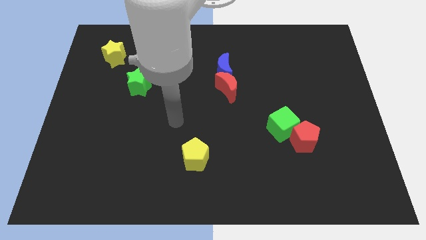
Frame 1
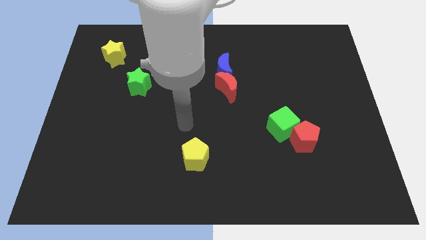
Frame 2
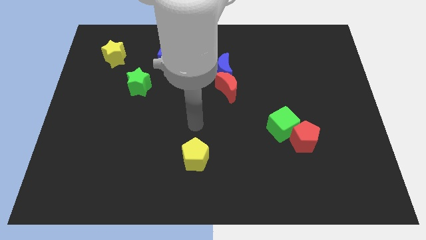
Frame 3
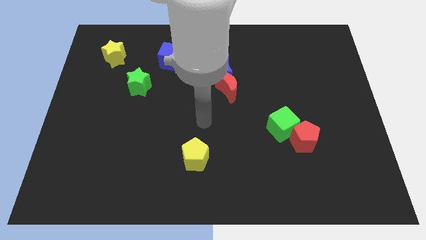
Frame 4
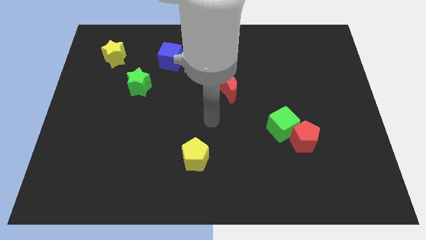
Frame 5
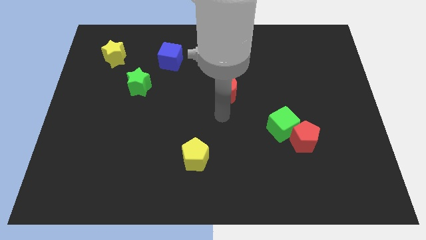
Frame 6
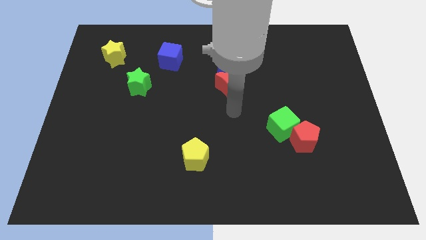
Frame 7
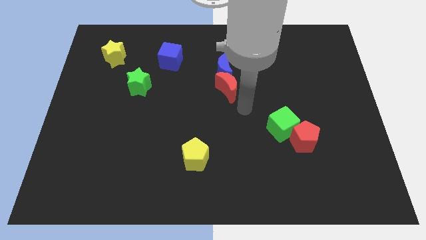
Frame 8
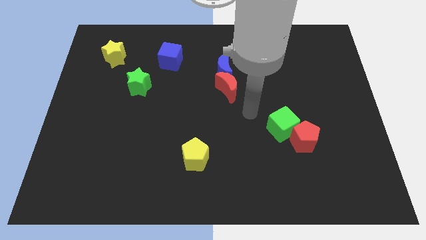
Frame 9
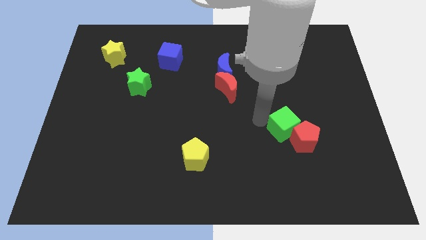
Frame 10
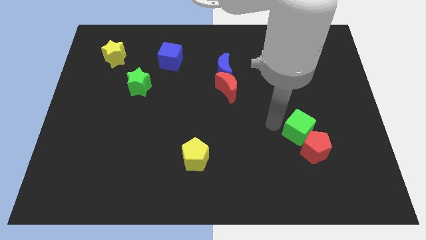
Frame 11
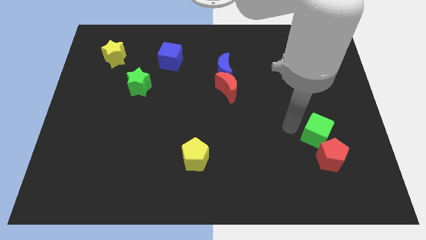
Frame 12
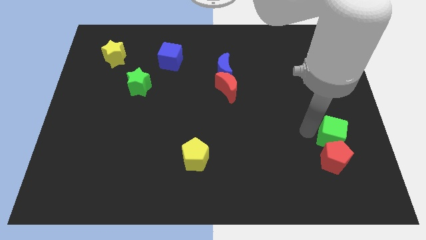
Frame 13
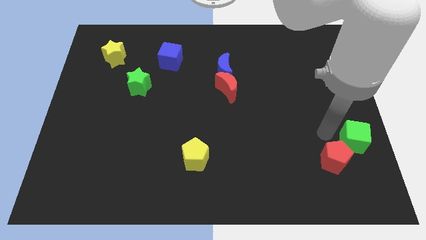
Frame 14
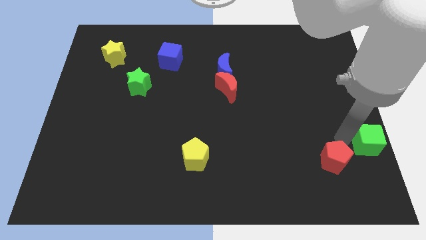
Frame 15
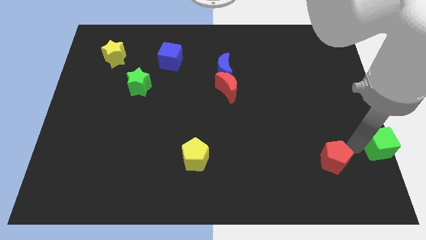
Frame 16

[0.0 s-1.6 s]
pull the red pentagon apart from the green cube

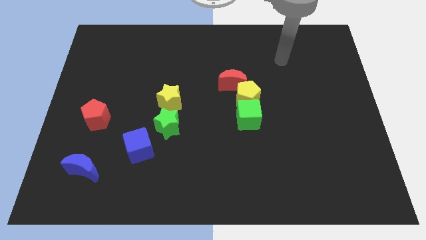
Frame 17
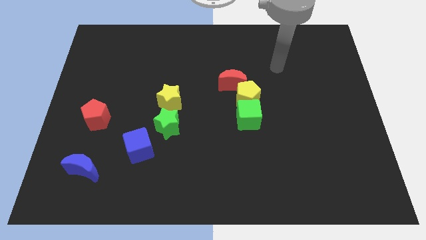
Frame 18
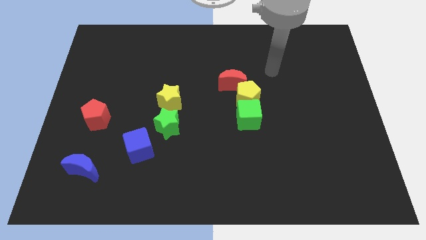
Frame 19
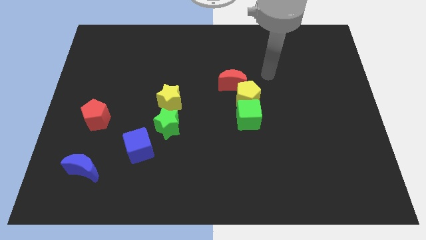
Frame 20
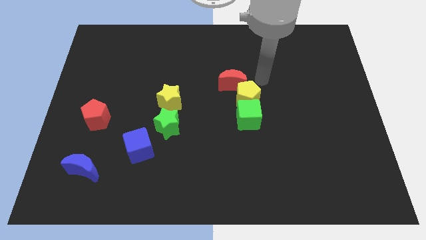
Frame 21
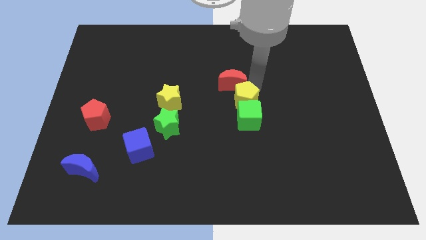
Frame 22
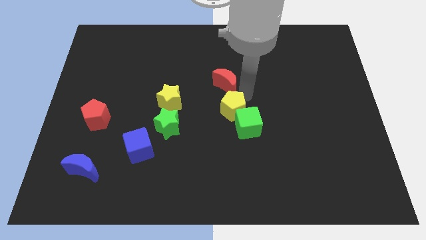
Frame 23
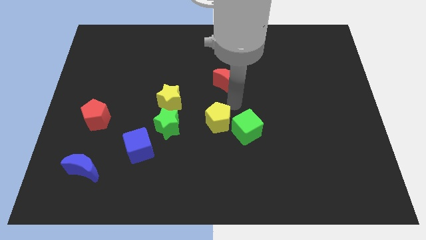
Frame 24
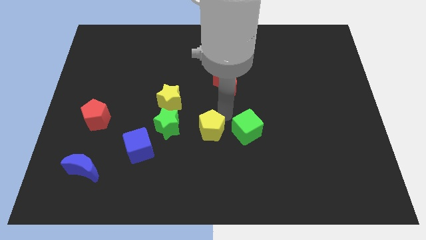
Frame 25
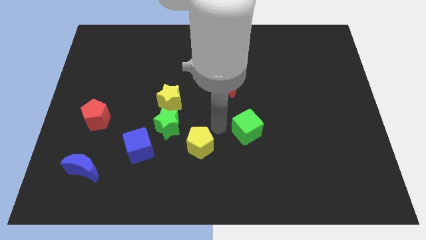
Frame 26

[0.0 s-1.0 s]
separate the green cube from the yellow pentagon

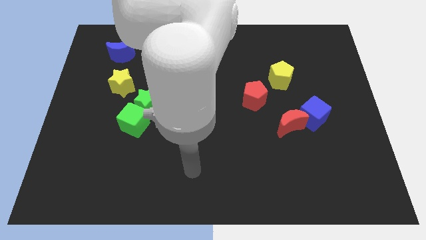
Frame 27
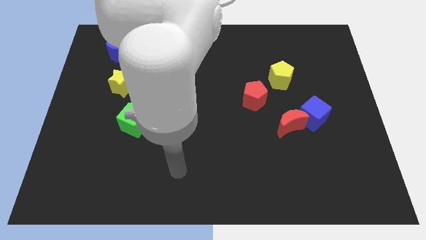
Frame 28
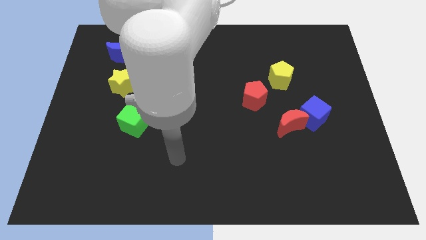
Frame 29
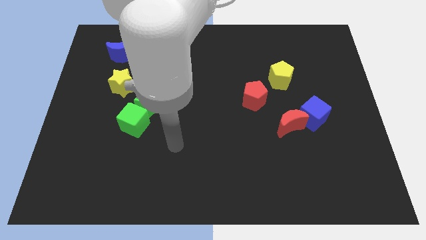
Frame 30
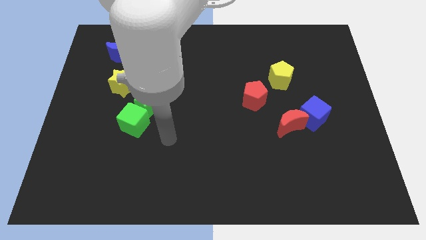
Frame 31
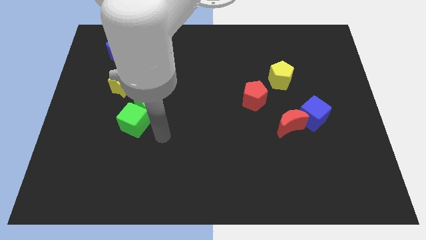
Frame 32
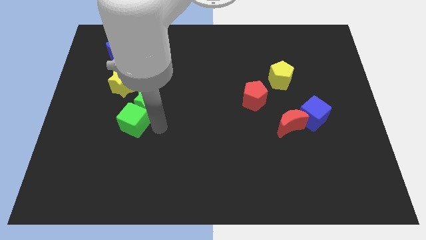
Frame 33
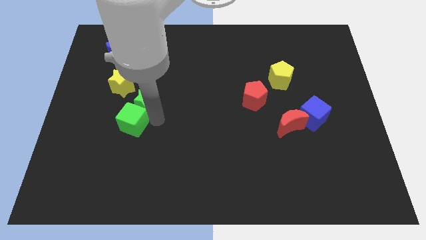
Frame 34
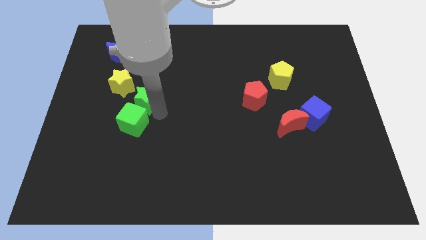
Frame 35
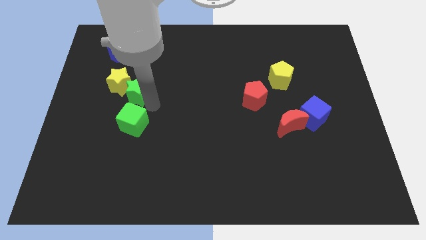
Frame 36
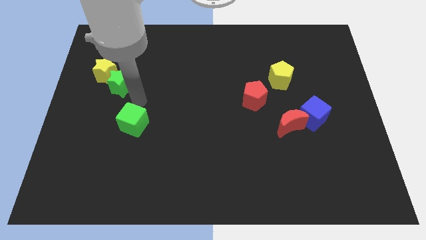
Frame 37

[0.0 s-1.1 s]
move the green cube away from the green star

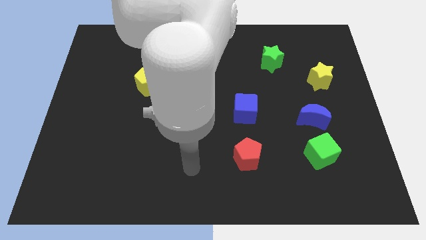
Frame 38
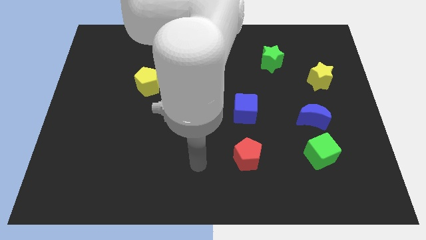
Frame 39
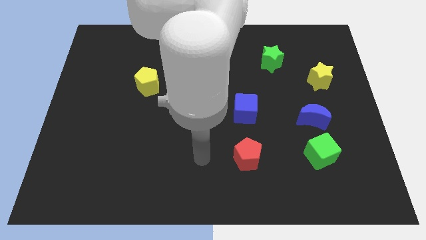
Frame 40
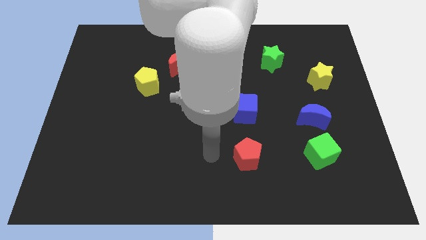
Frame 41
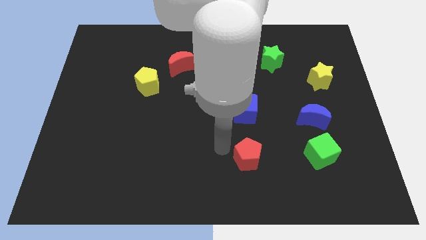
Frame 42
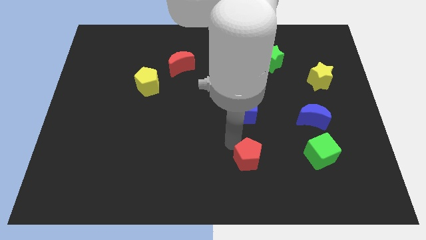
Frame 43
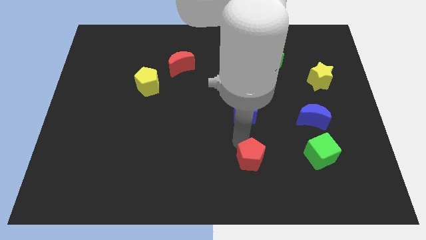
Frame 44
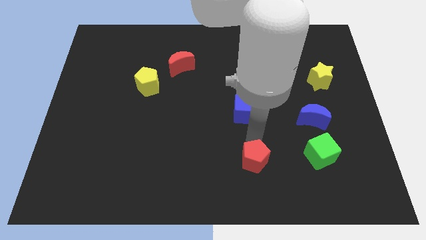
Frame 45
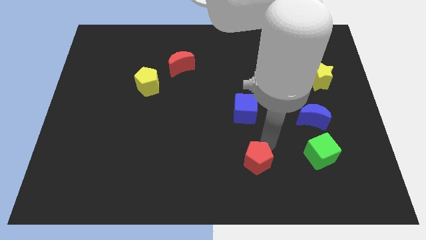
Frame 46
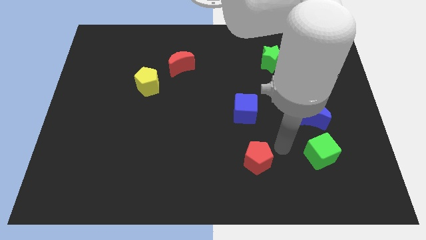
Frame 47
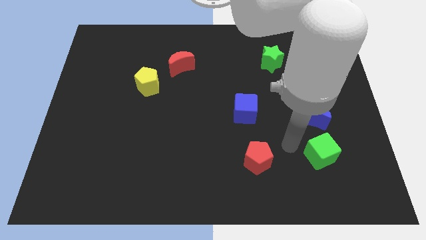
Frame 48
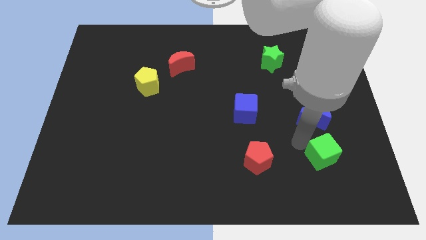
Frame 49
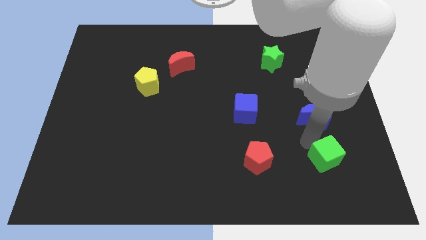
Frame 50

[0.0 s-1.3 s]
separate the blue moon from the green cube

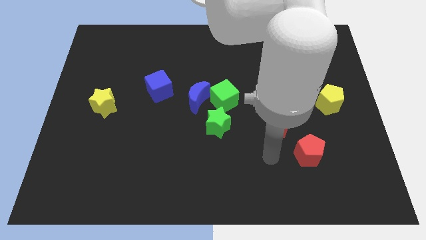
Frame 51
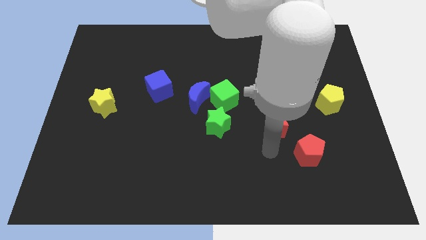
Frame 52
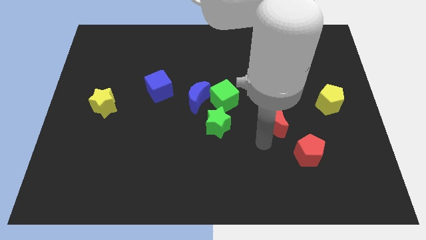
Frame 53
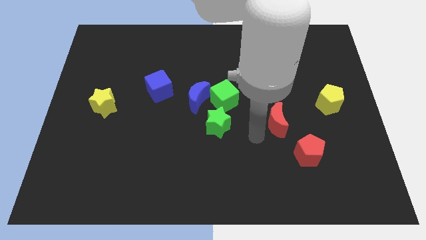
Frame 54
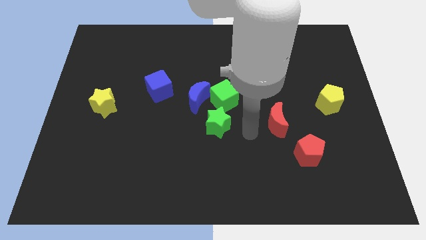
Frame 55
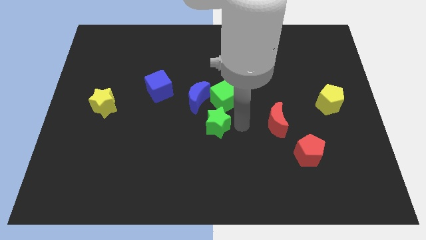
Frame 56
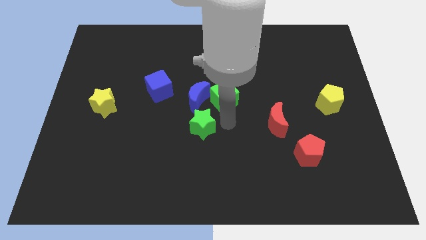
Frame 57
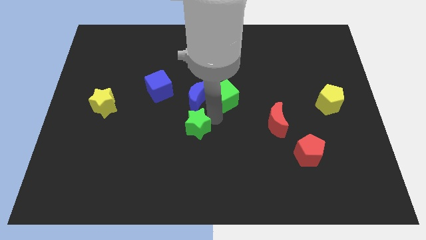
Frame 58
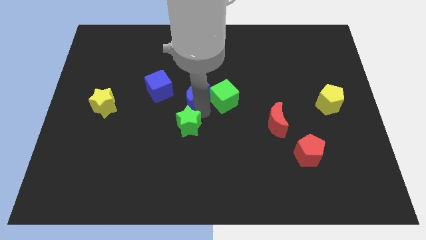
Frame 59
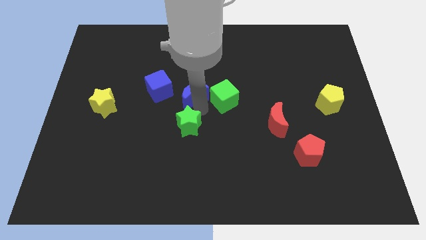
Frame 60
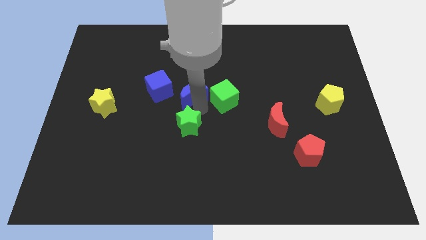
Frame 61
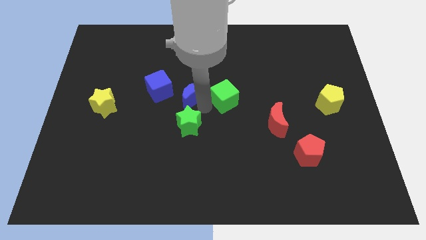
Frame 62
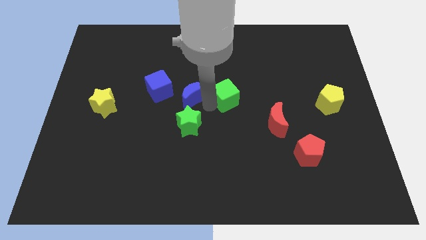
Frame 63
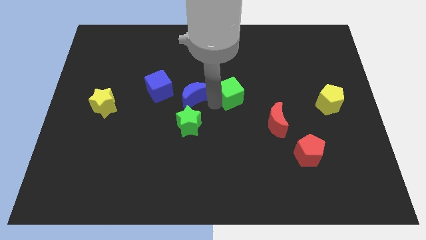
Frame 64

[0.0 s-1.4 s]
move the green cube away from the blue moon and green star

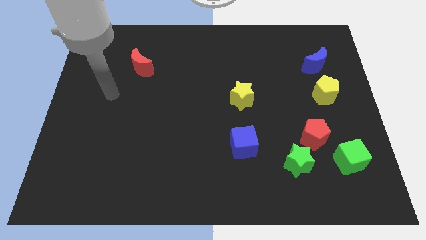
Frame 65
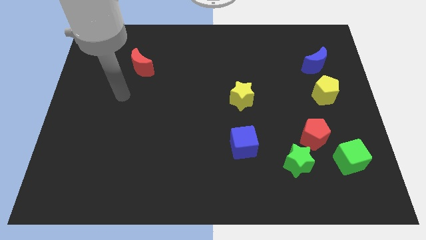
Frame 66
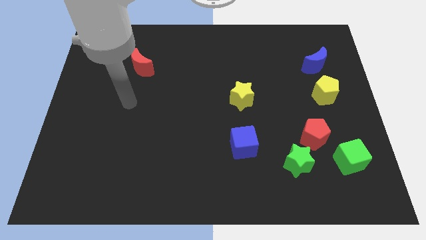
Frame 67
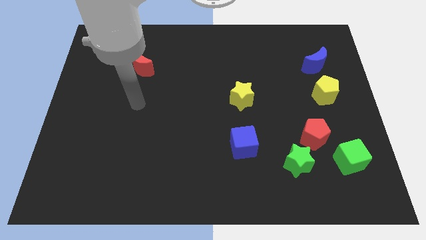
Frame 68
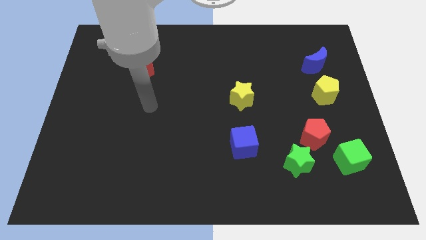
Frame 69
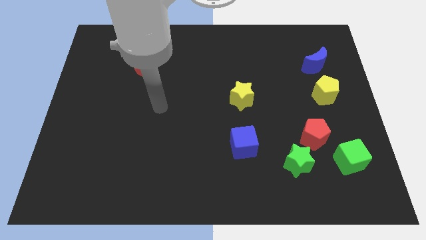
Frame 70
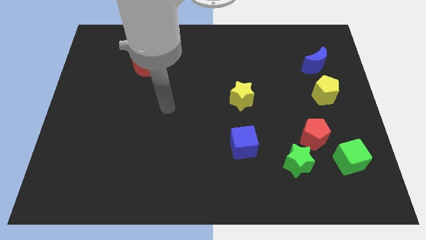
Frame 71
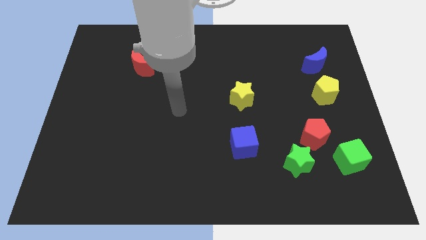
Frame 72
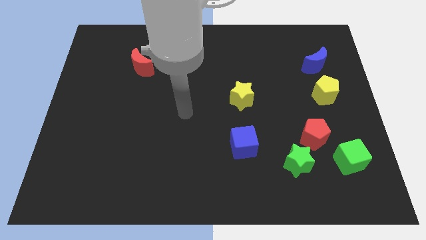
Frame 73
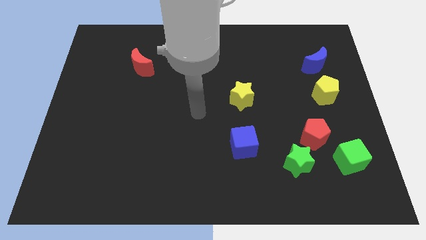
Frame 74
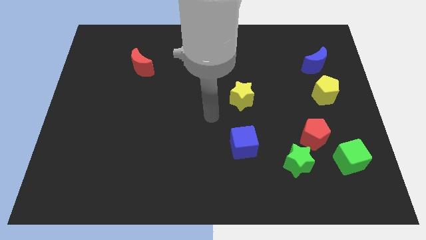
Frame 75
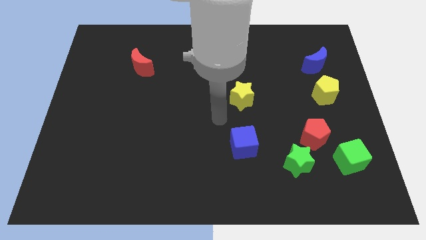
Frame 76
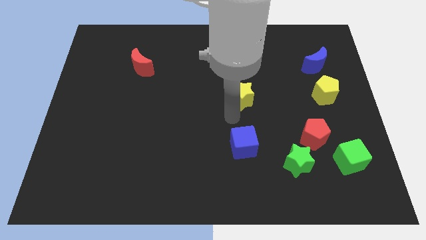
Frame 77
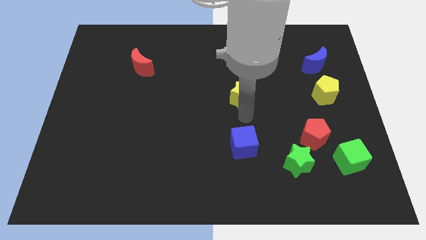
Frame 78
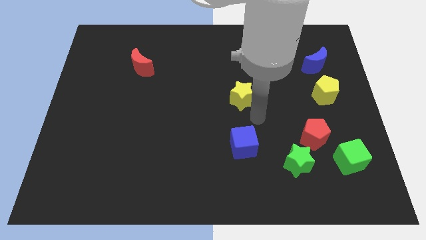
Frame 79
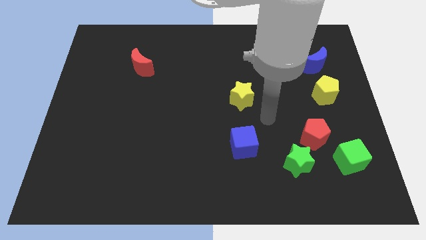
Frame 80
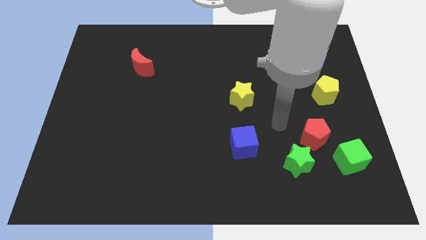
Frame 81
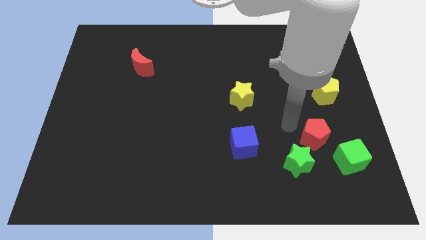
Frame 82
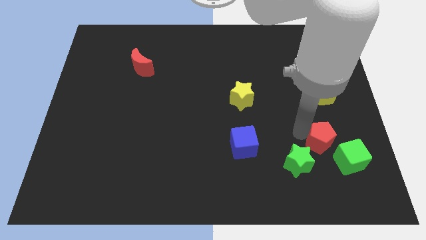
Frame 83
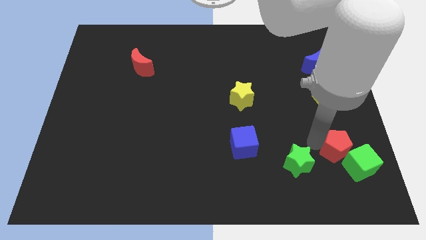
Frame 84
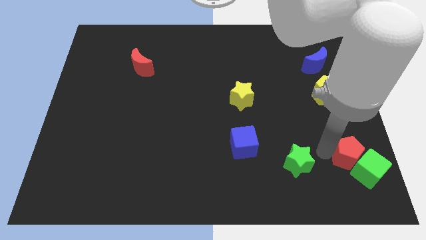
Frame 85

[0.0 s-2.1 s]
pull the green star apart from the red pentagon

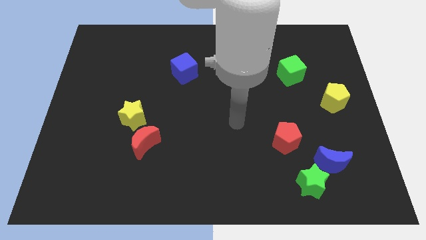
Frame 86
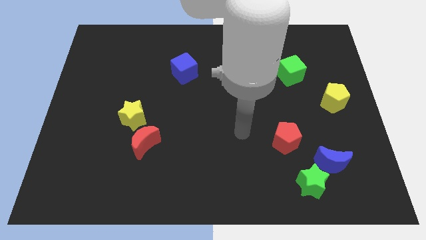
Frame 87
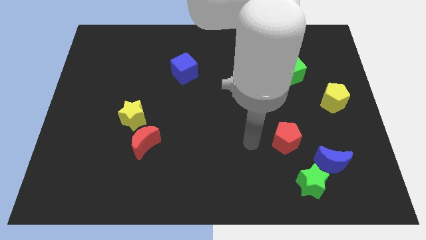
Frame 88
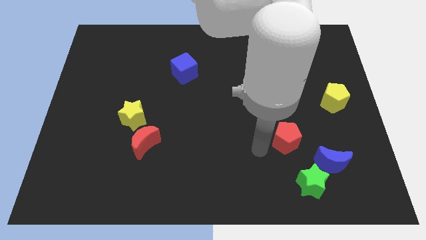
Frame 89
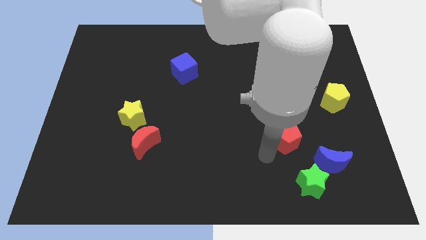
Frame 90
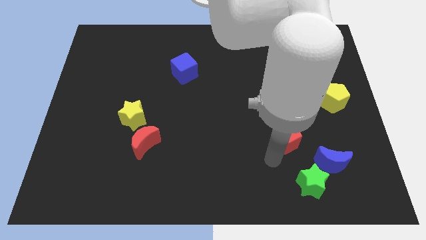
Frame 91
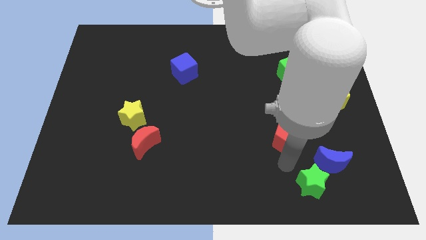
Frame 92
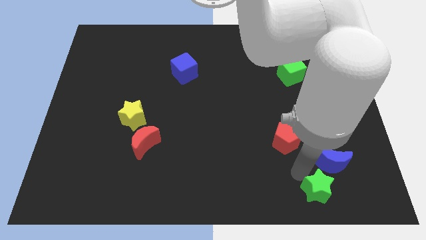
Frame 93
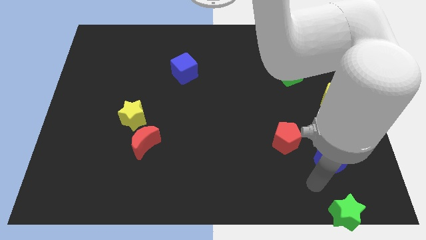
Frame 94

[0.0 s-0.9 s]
move the blue moon away from the green star

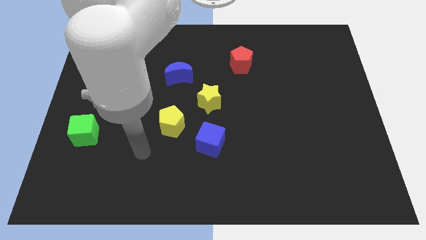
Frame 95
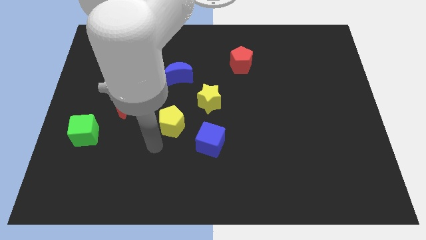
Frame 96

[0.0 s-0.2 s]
separate the blue cube from the yellow pentagon
